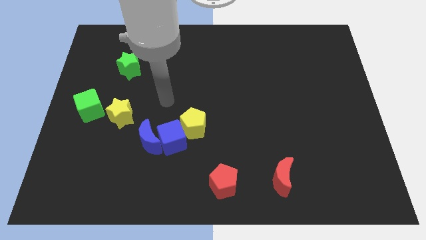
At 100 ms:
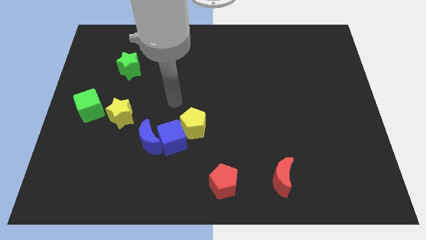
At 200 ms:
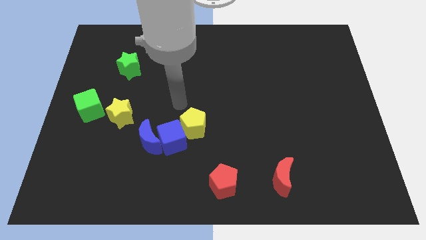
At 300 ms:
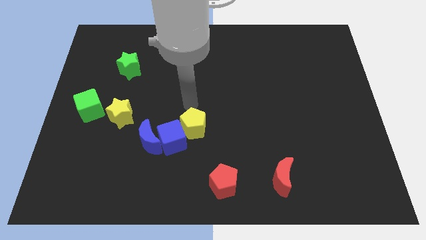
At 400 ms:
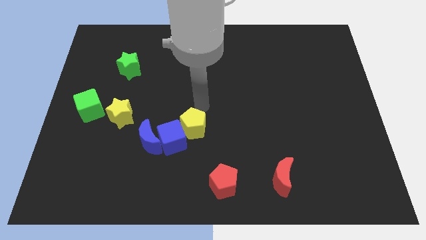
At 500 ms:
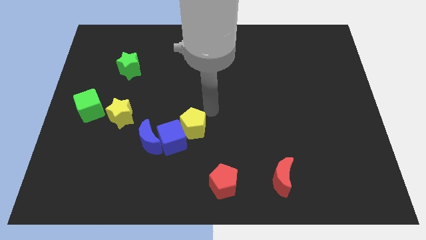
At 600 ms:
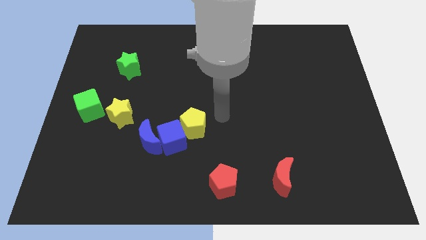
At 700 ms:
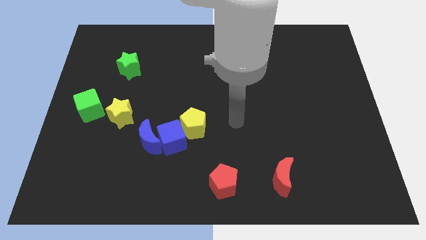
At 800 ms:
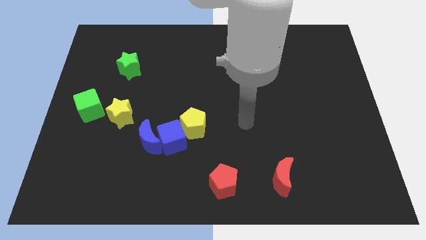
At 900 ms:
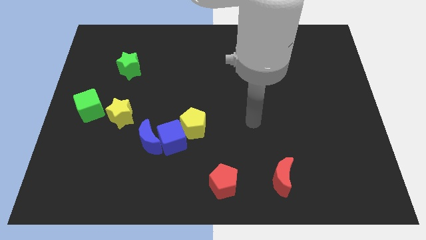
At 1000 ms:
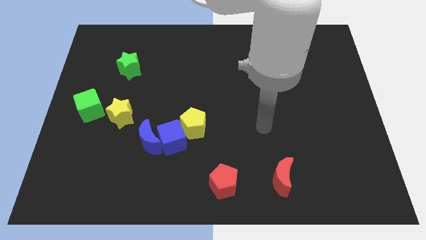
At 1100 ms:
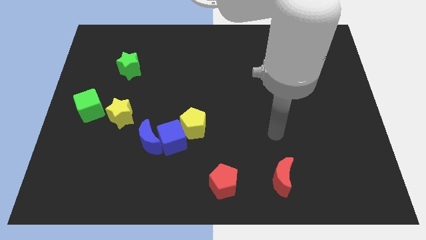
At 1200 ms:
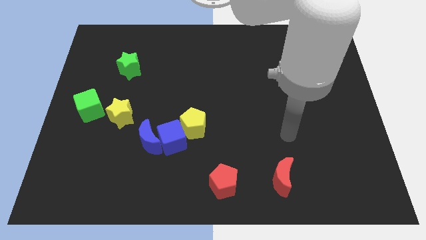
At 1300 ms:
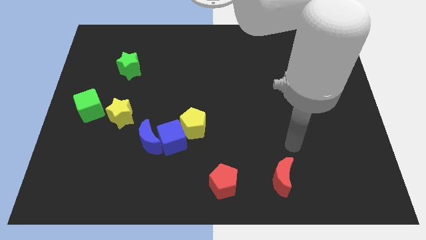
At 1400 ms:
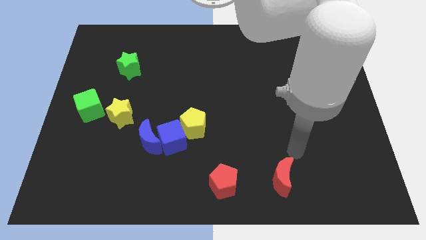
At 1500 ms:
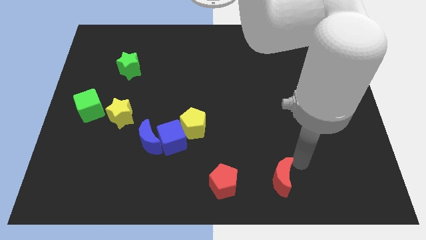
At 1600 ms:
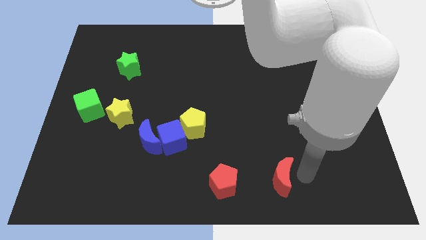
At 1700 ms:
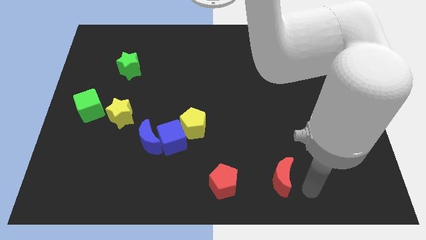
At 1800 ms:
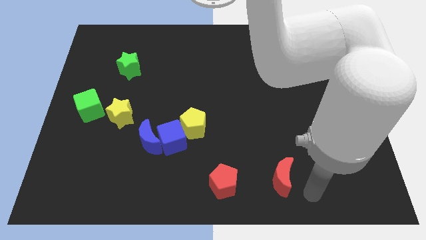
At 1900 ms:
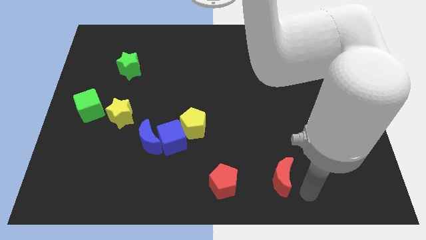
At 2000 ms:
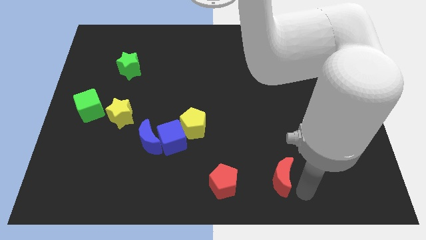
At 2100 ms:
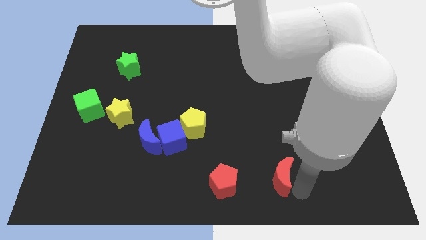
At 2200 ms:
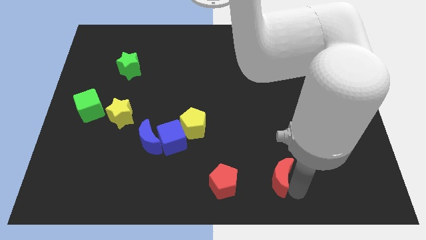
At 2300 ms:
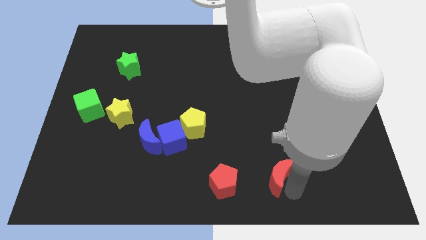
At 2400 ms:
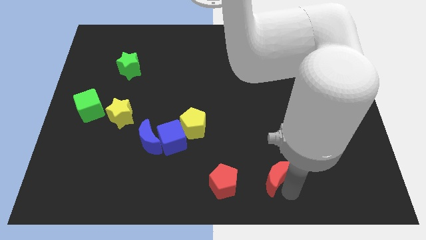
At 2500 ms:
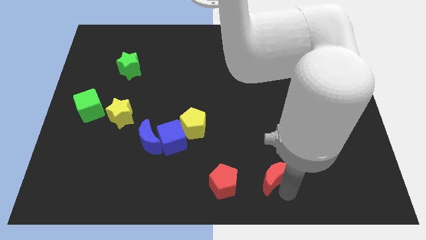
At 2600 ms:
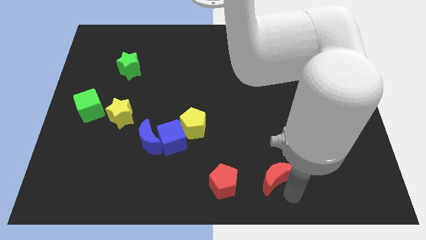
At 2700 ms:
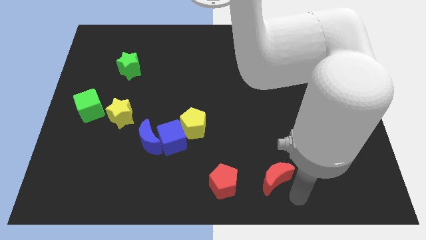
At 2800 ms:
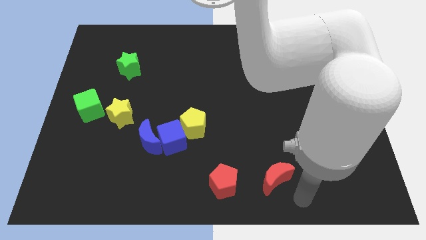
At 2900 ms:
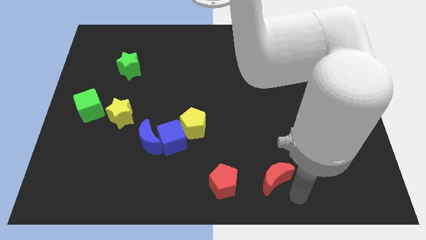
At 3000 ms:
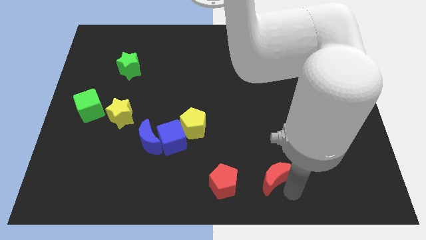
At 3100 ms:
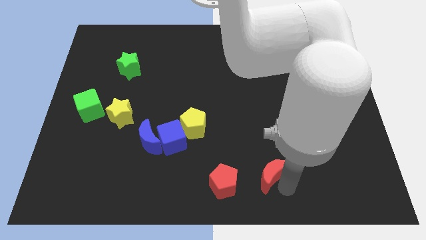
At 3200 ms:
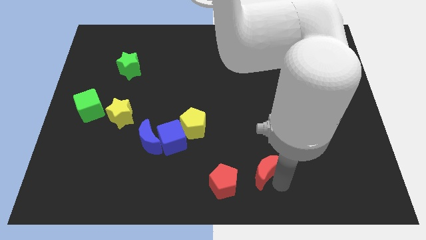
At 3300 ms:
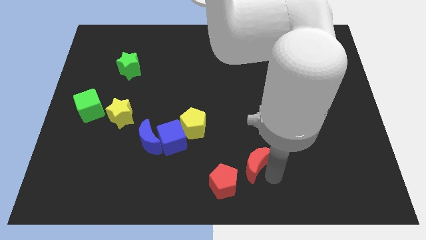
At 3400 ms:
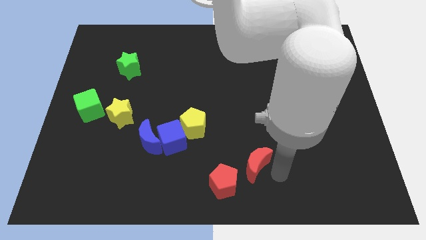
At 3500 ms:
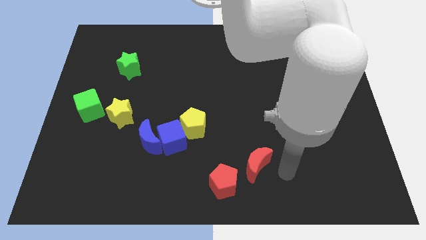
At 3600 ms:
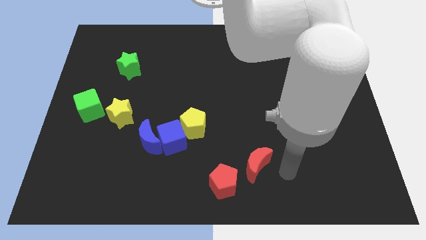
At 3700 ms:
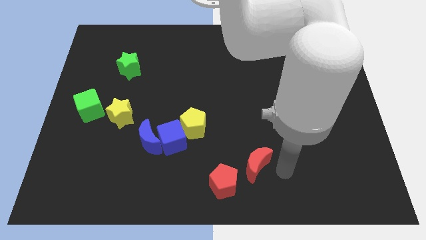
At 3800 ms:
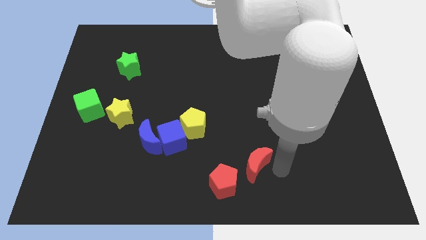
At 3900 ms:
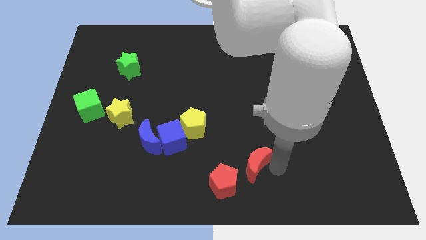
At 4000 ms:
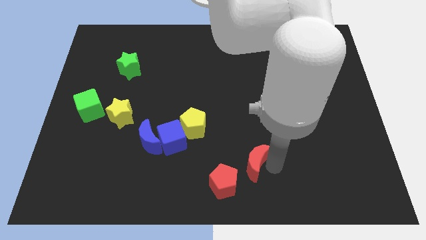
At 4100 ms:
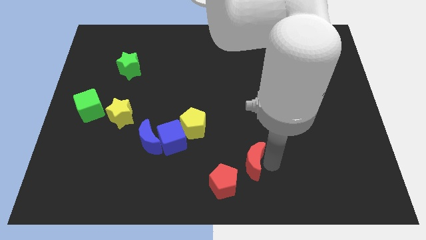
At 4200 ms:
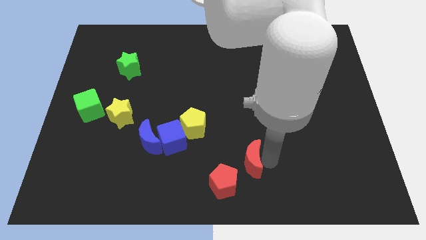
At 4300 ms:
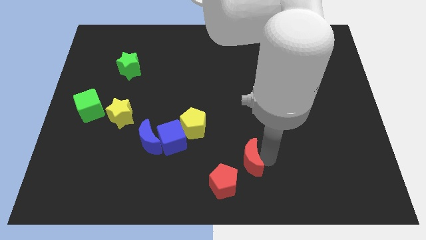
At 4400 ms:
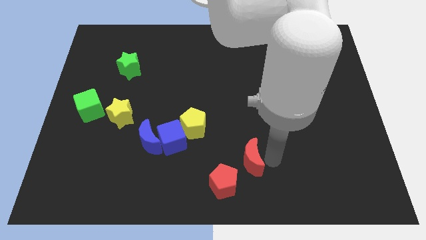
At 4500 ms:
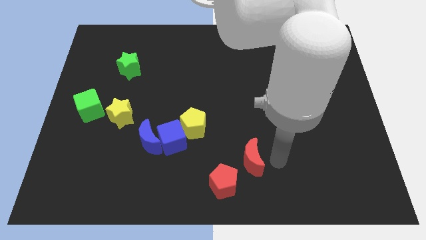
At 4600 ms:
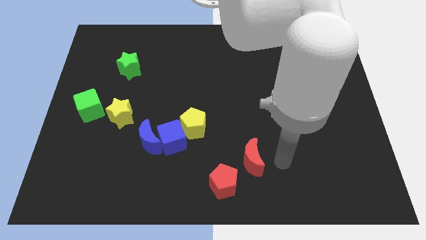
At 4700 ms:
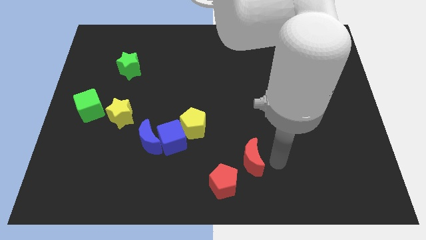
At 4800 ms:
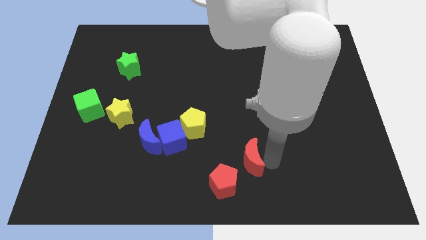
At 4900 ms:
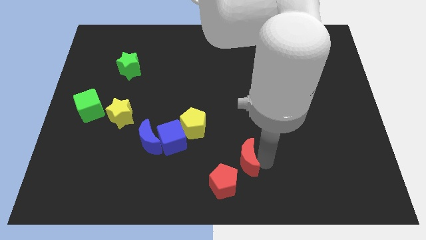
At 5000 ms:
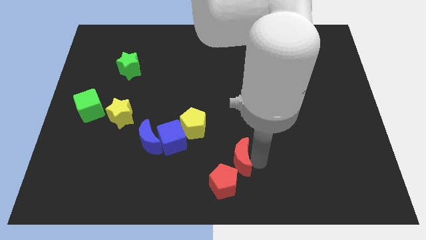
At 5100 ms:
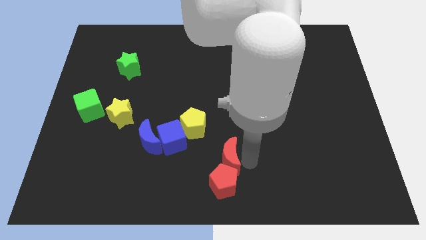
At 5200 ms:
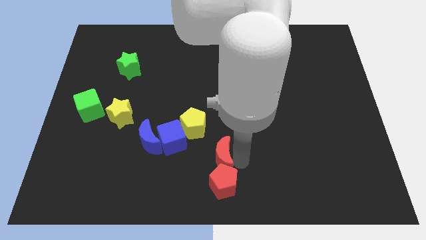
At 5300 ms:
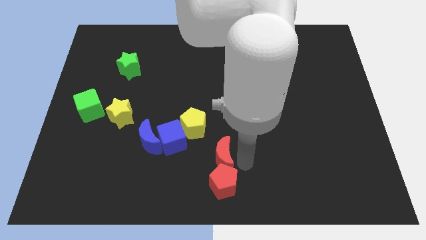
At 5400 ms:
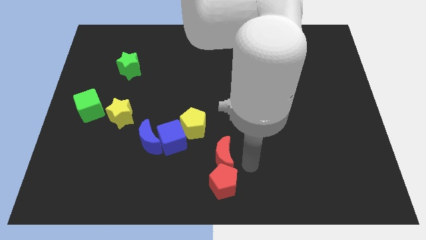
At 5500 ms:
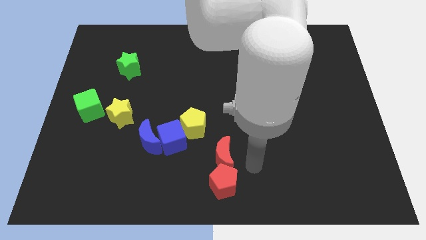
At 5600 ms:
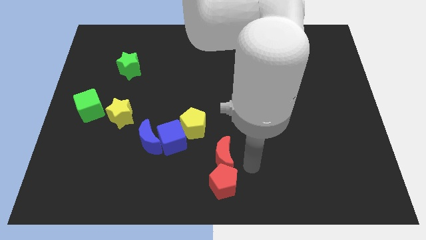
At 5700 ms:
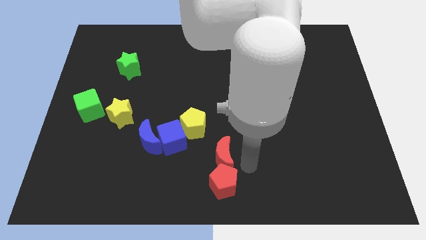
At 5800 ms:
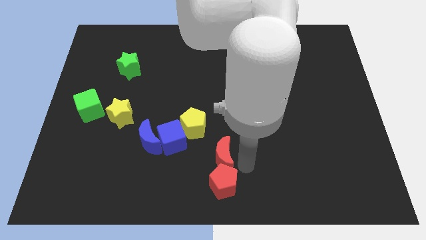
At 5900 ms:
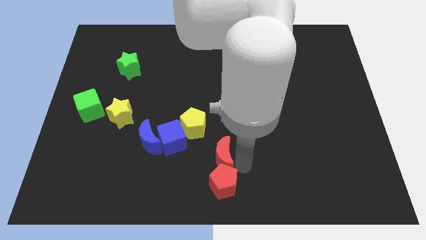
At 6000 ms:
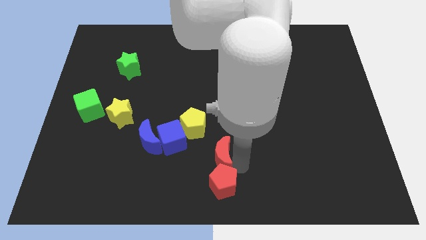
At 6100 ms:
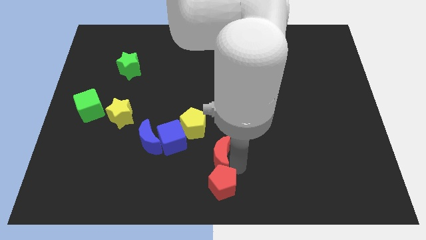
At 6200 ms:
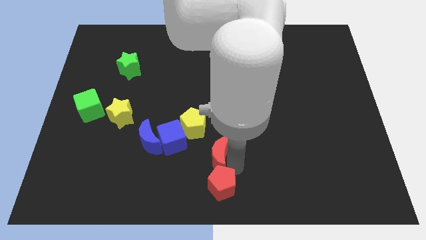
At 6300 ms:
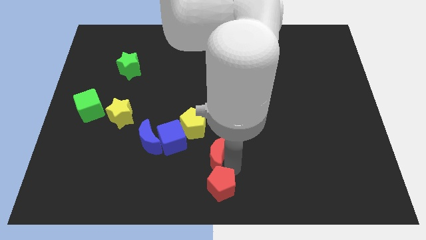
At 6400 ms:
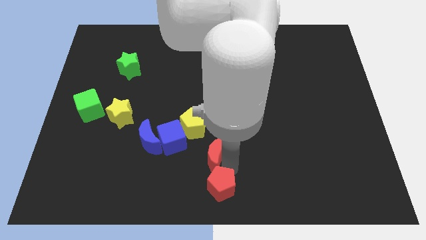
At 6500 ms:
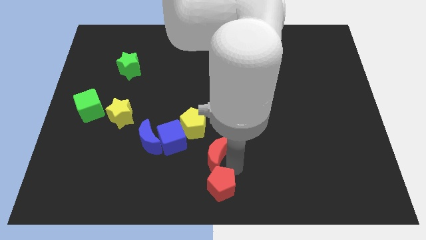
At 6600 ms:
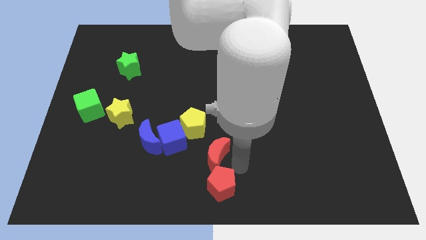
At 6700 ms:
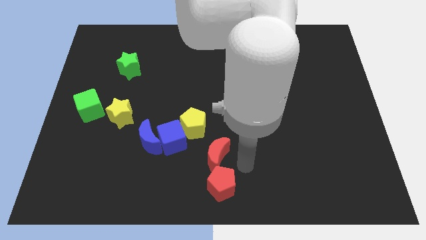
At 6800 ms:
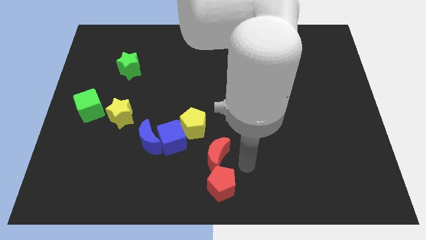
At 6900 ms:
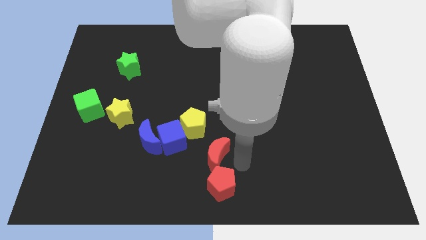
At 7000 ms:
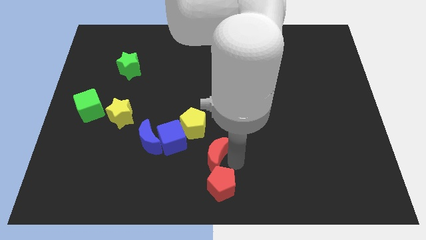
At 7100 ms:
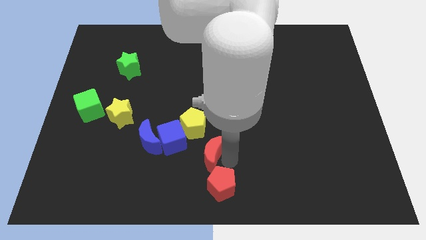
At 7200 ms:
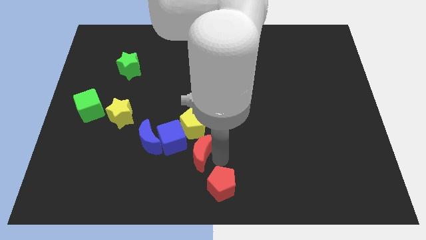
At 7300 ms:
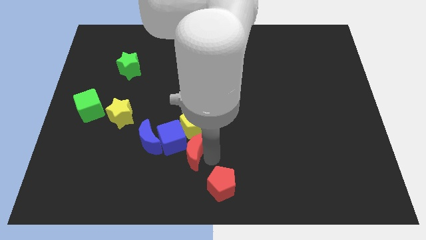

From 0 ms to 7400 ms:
put the red moon to the blue cube

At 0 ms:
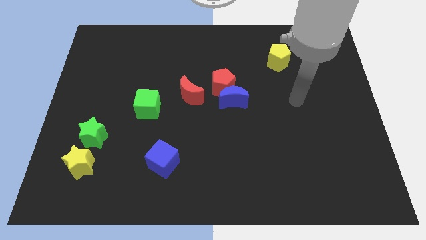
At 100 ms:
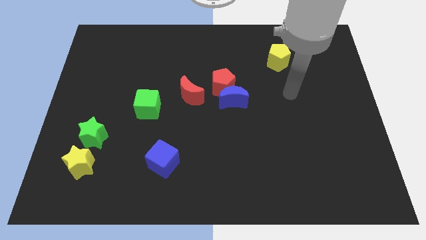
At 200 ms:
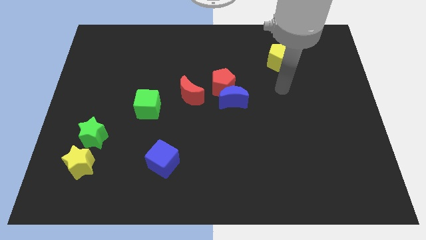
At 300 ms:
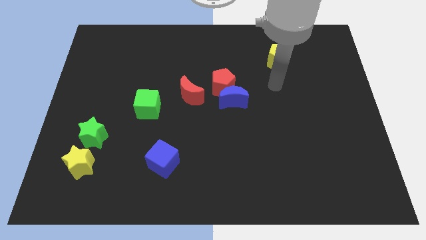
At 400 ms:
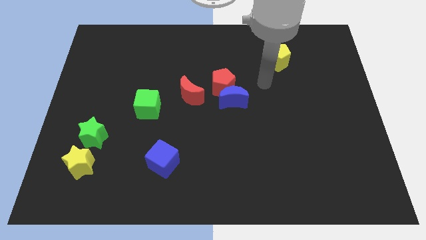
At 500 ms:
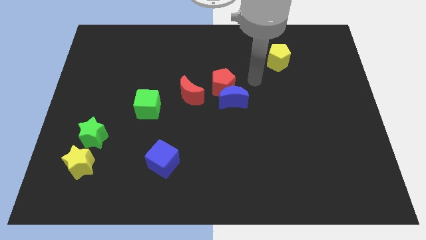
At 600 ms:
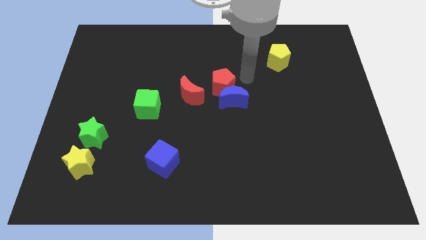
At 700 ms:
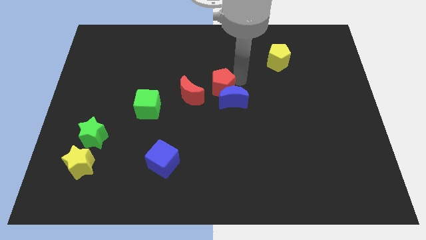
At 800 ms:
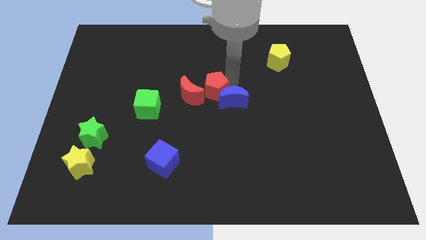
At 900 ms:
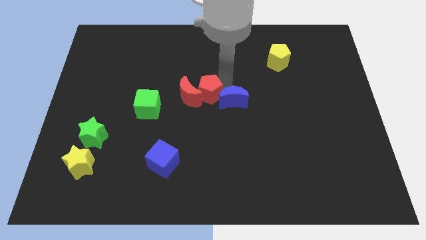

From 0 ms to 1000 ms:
push the red pentagon towards the red moon

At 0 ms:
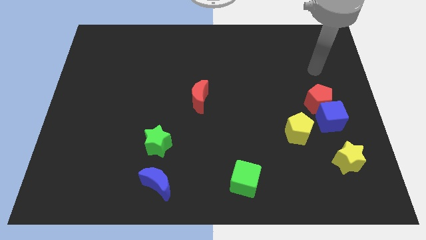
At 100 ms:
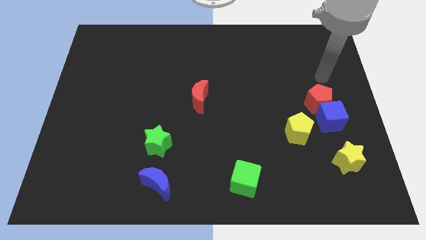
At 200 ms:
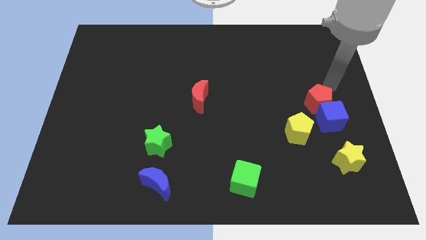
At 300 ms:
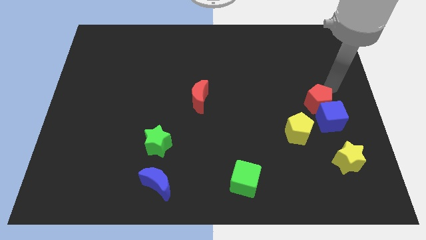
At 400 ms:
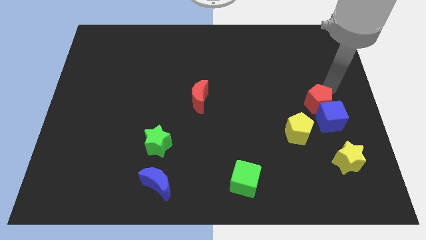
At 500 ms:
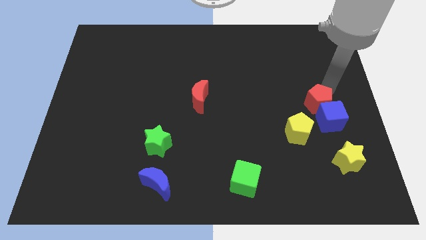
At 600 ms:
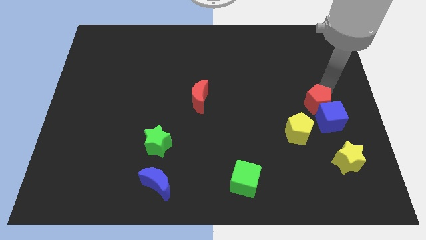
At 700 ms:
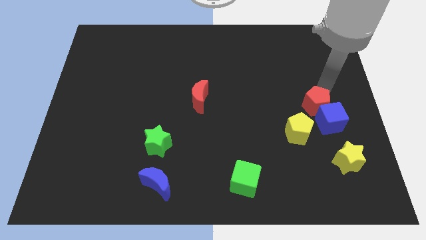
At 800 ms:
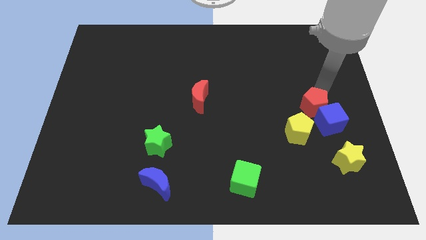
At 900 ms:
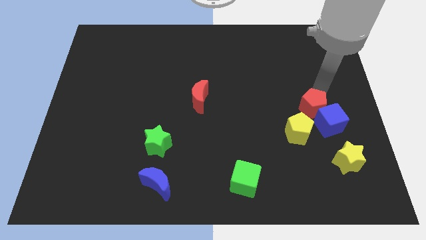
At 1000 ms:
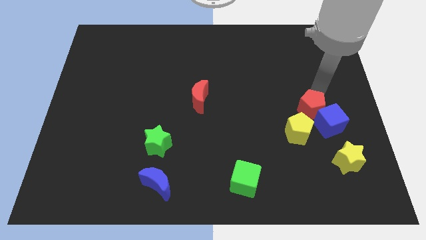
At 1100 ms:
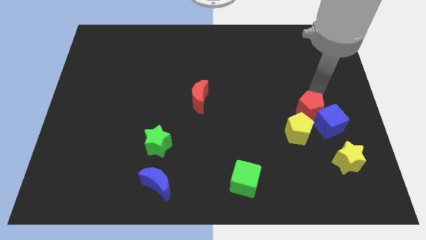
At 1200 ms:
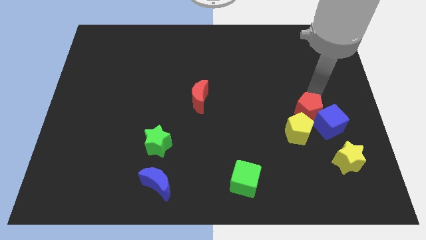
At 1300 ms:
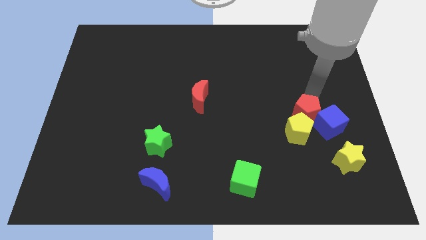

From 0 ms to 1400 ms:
put the red pentagon towards the yellow pentagon
